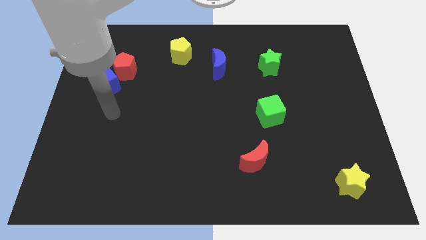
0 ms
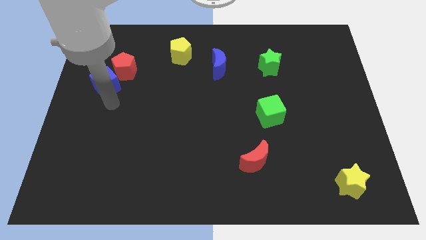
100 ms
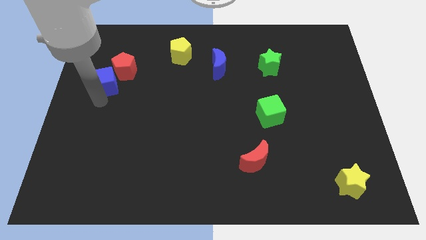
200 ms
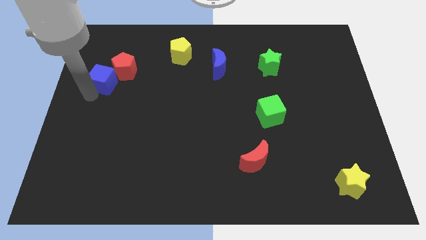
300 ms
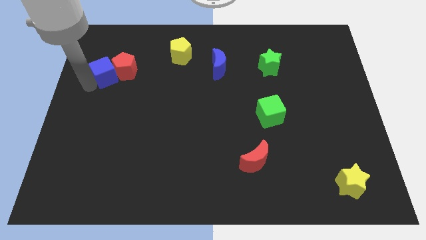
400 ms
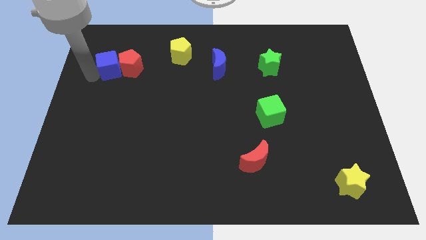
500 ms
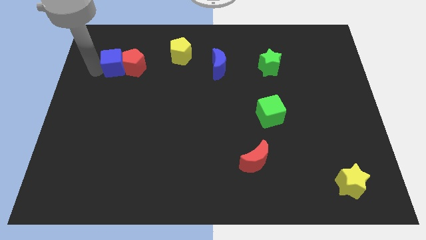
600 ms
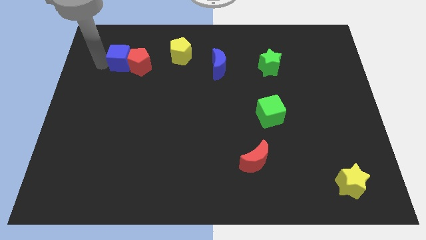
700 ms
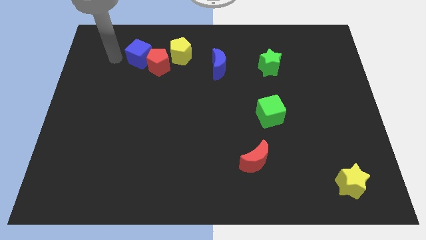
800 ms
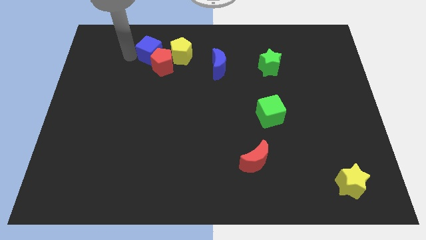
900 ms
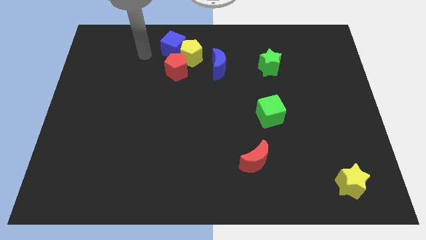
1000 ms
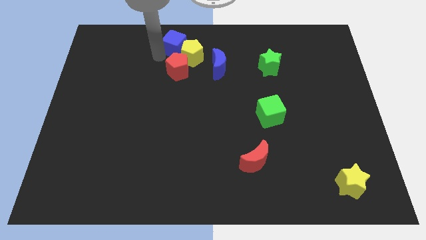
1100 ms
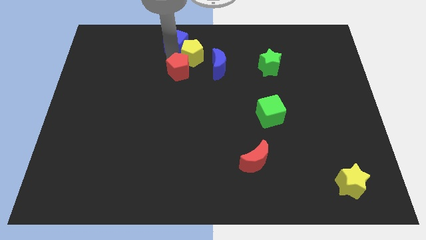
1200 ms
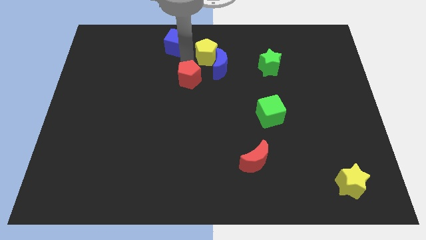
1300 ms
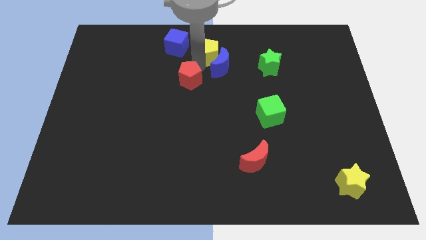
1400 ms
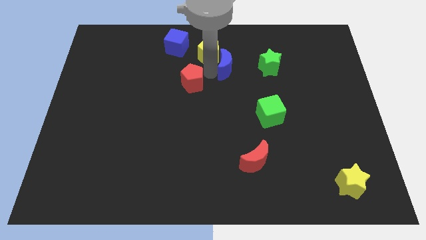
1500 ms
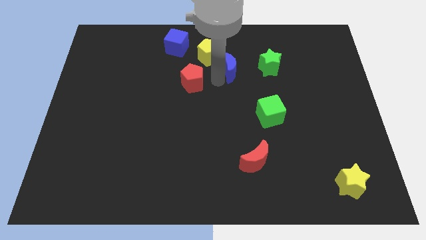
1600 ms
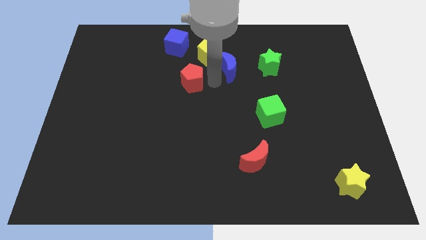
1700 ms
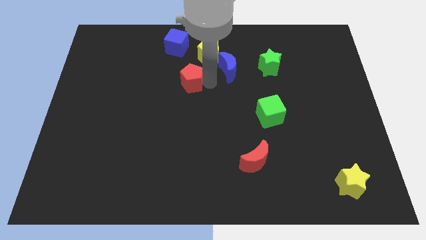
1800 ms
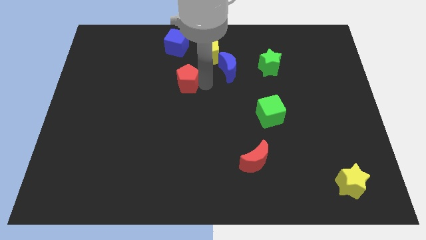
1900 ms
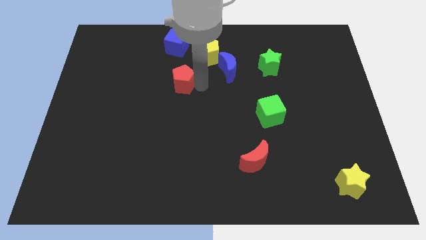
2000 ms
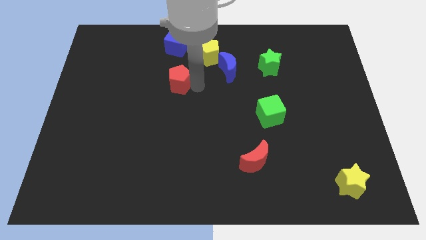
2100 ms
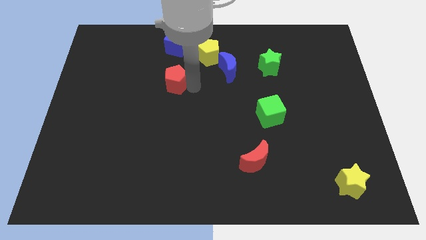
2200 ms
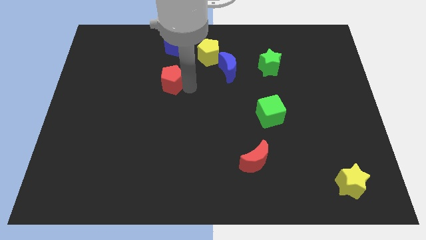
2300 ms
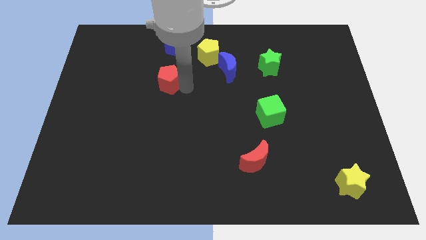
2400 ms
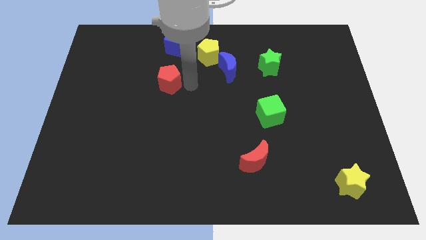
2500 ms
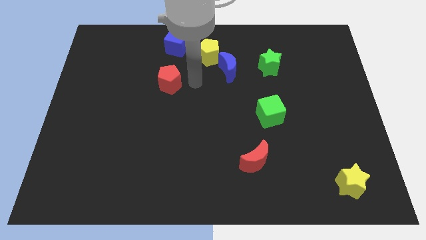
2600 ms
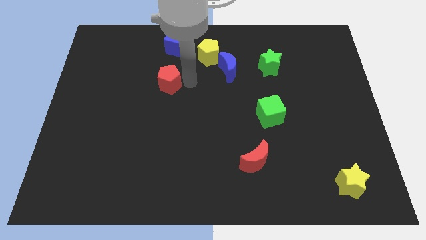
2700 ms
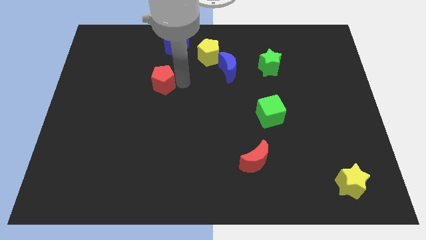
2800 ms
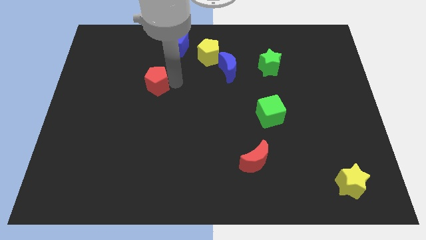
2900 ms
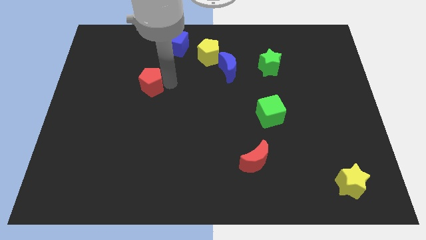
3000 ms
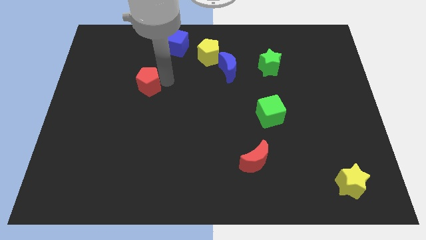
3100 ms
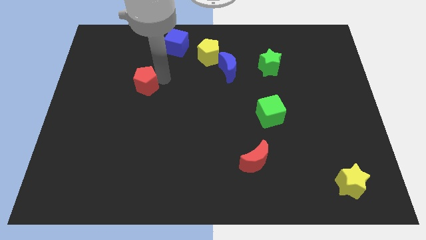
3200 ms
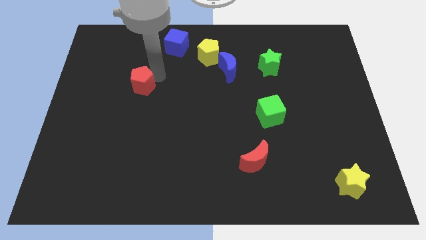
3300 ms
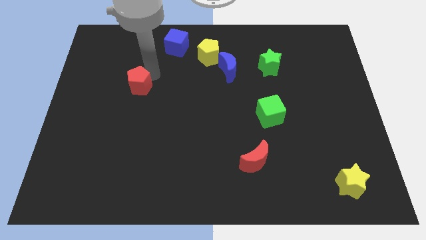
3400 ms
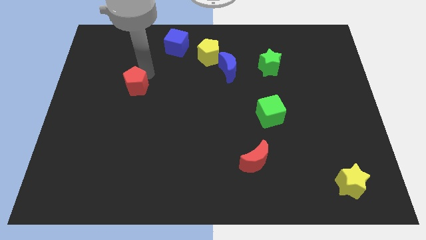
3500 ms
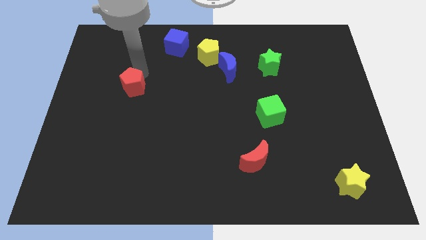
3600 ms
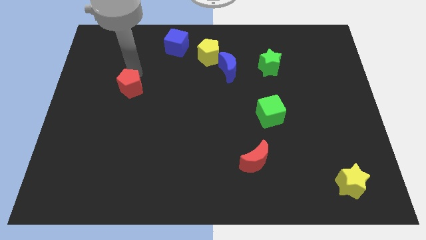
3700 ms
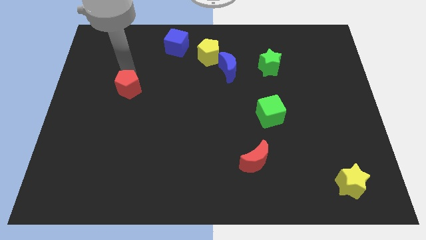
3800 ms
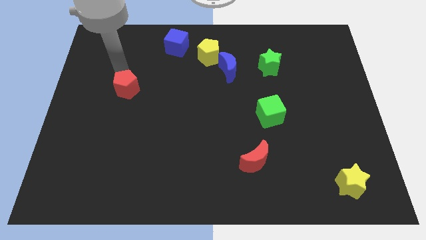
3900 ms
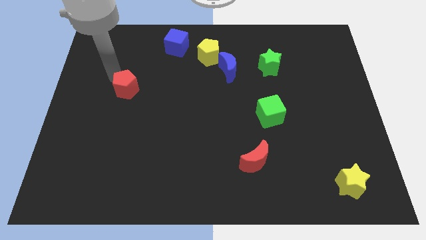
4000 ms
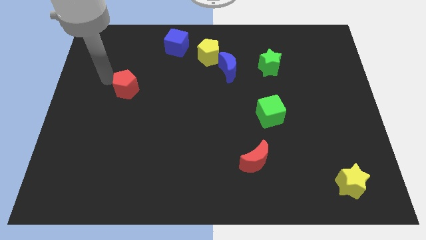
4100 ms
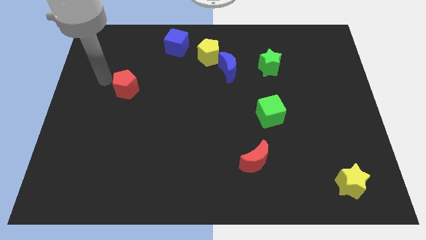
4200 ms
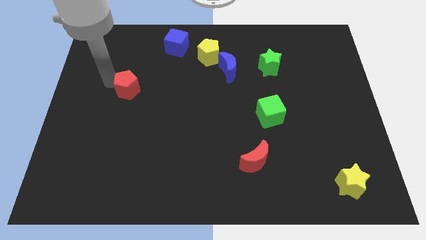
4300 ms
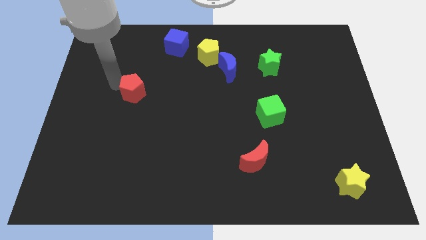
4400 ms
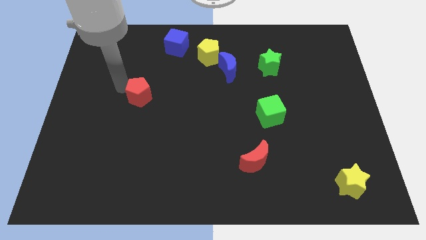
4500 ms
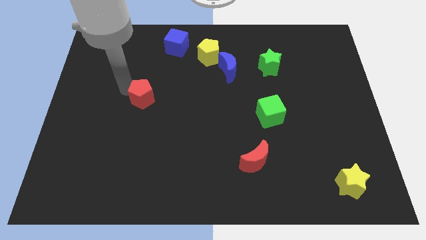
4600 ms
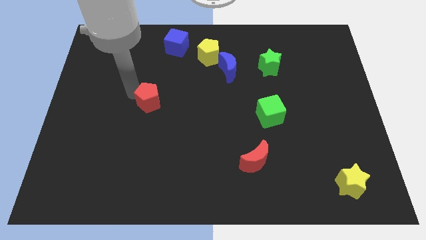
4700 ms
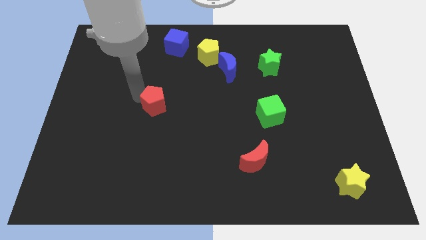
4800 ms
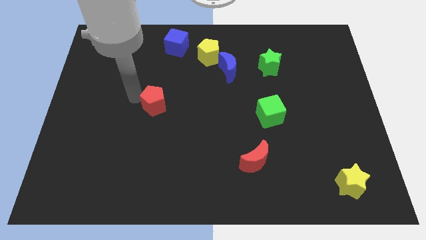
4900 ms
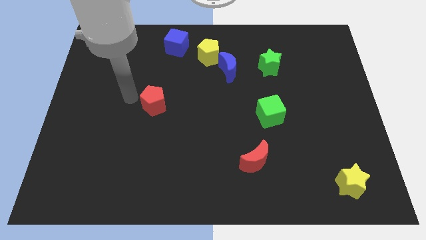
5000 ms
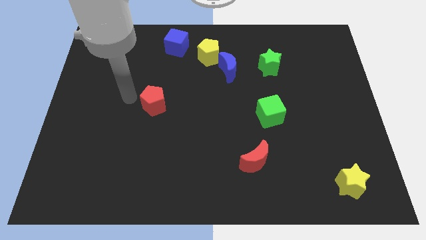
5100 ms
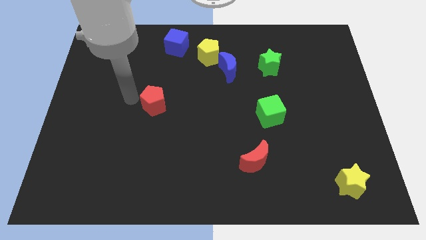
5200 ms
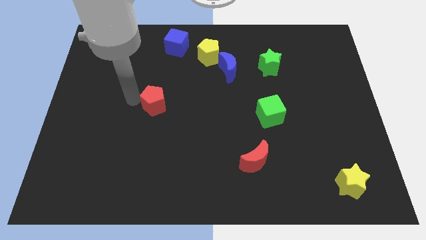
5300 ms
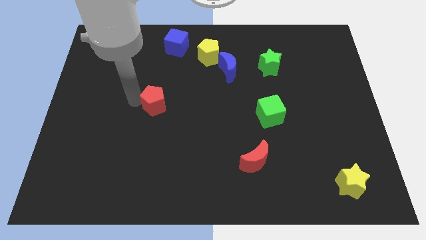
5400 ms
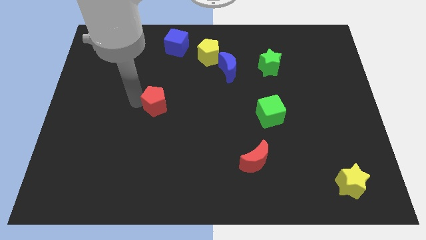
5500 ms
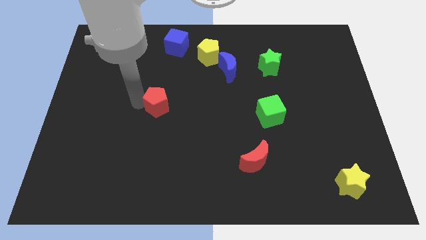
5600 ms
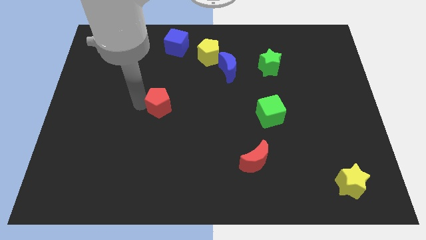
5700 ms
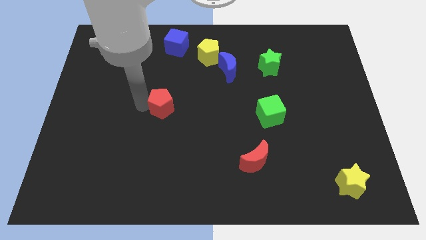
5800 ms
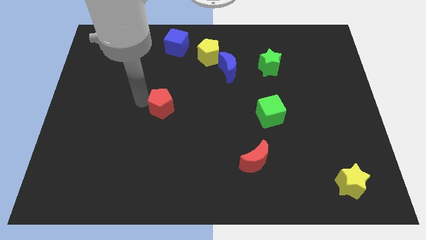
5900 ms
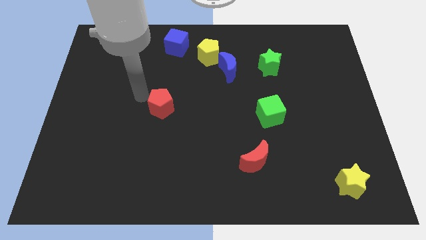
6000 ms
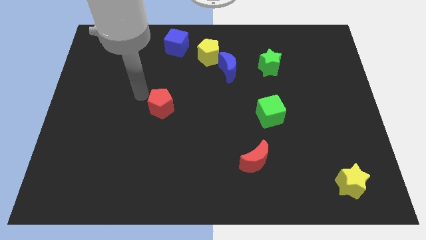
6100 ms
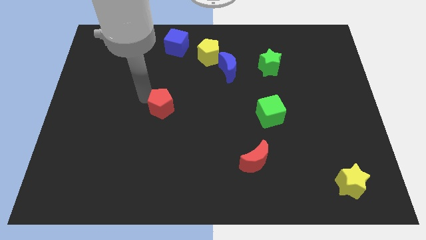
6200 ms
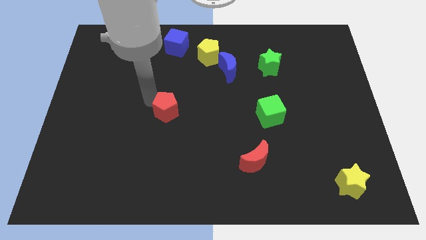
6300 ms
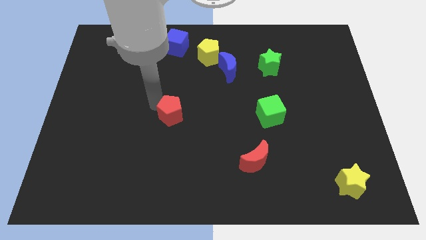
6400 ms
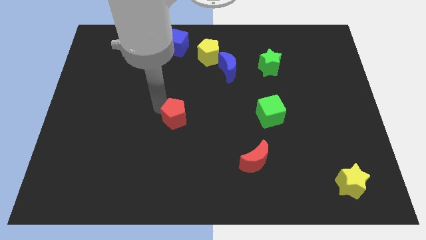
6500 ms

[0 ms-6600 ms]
move the red pentagon down and right diagonally

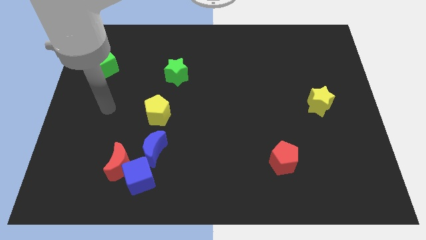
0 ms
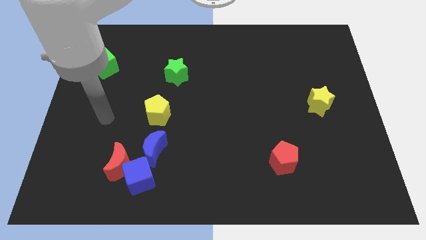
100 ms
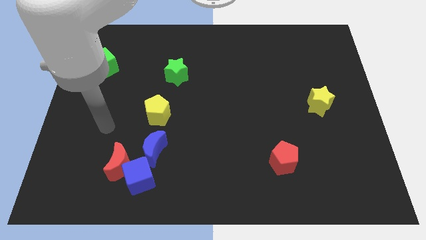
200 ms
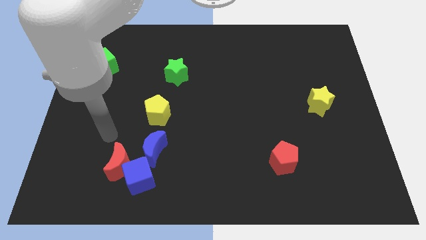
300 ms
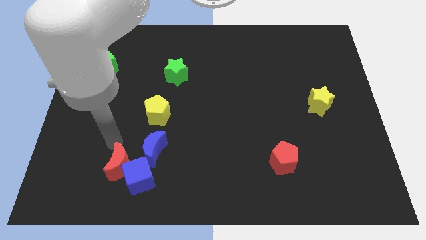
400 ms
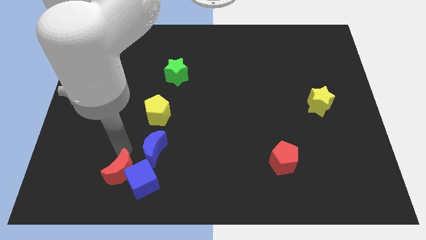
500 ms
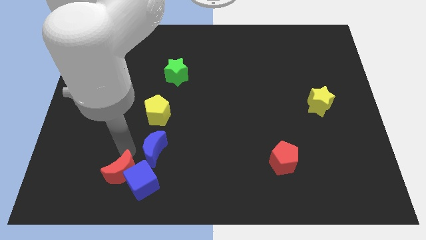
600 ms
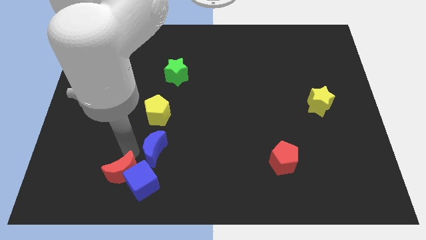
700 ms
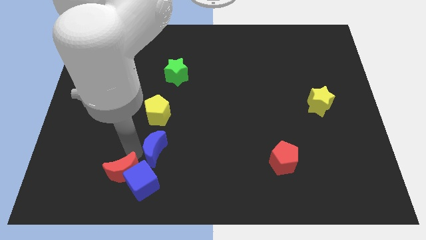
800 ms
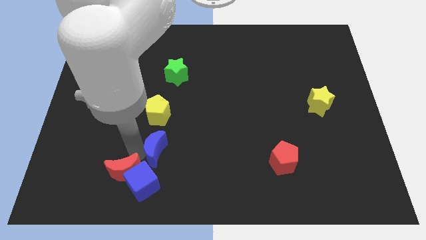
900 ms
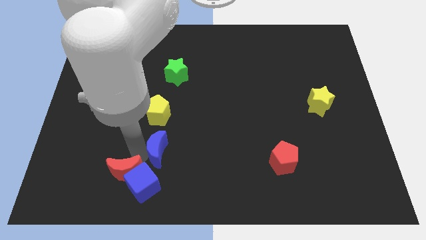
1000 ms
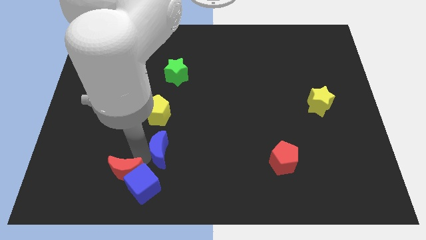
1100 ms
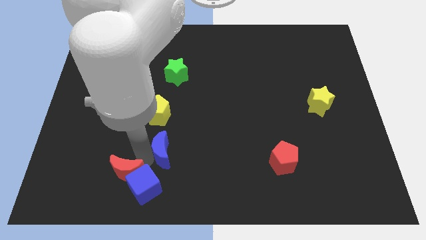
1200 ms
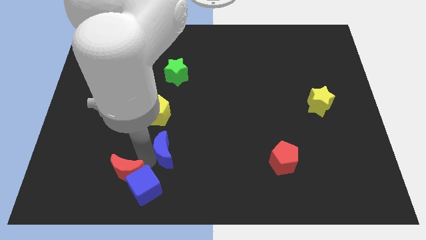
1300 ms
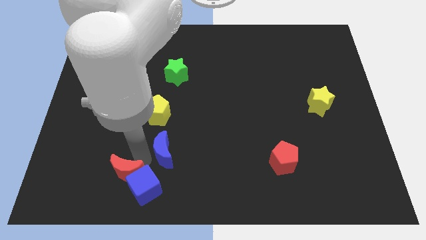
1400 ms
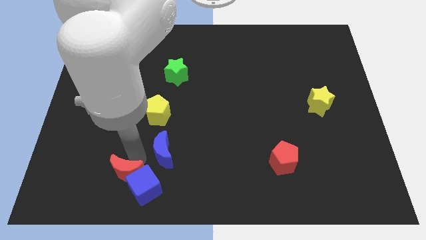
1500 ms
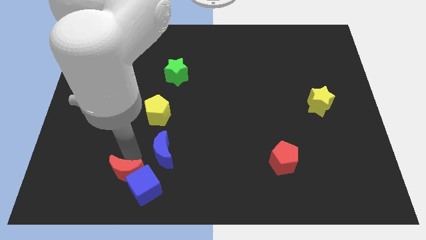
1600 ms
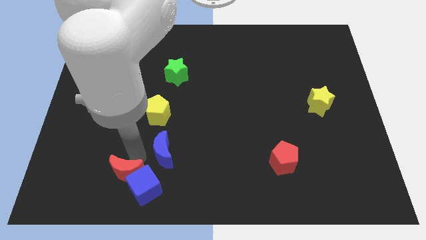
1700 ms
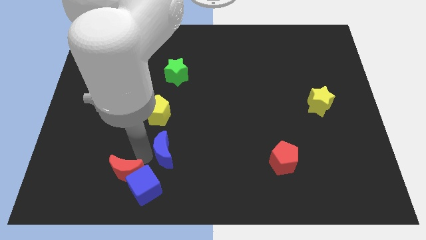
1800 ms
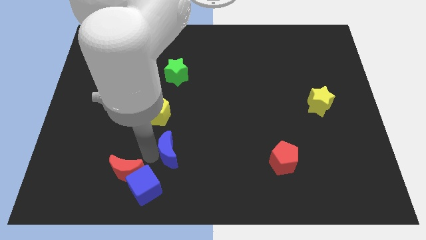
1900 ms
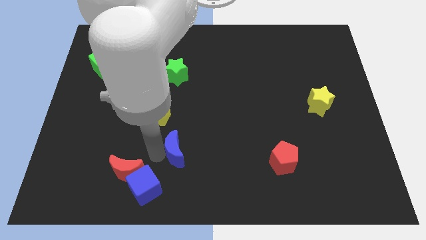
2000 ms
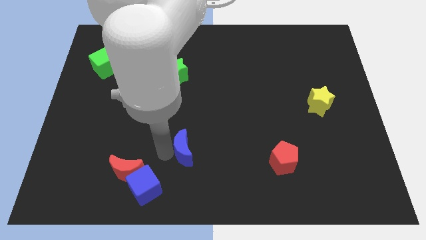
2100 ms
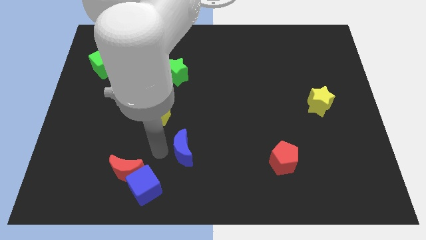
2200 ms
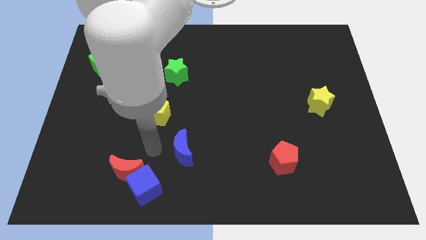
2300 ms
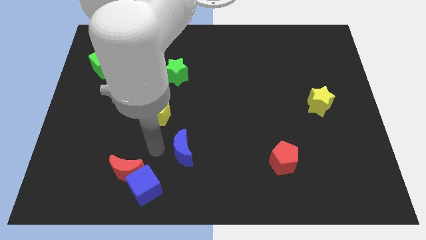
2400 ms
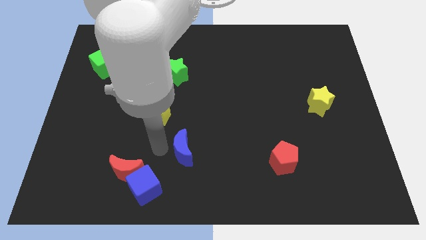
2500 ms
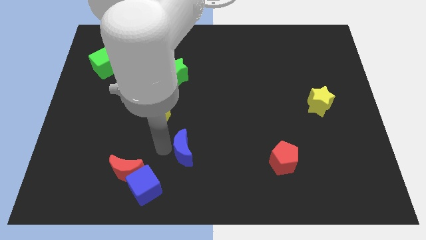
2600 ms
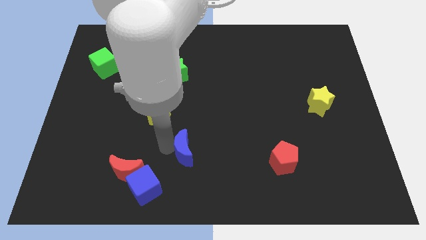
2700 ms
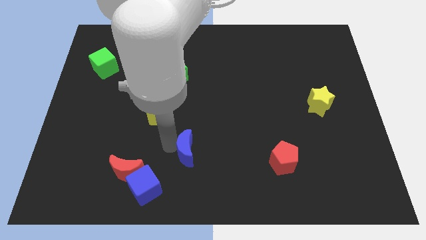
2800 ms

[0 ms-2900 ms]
slide the blue moon slightly to the right
